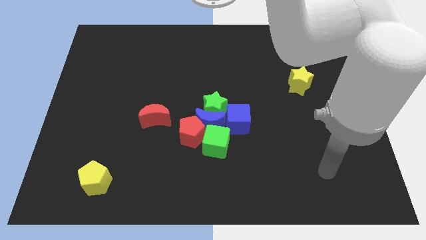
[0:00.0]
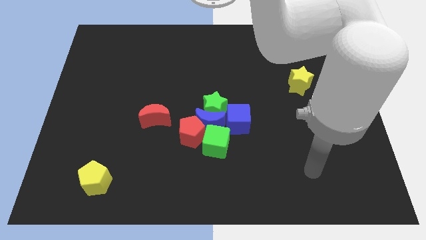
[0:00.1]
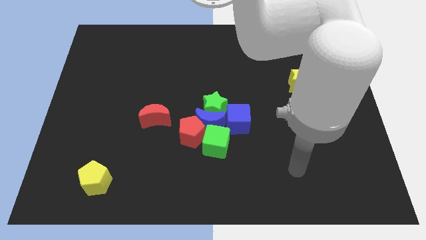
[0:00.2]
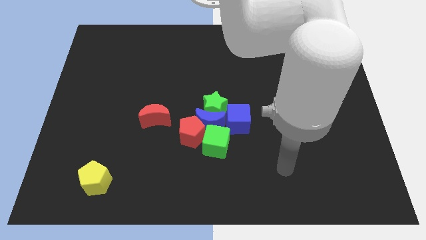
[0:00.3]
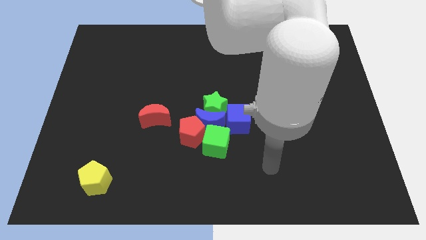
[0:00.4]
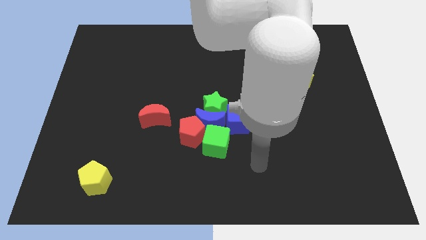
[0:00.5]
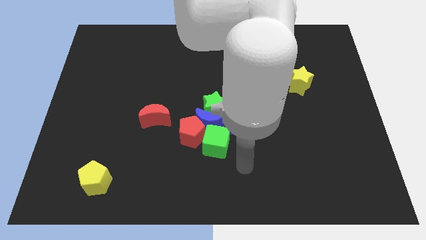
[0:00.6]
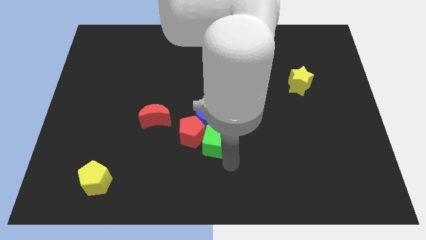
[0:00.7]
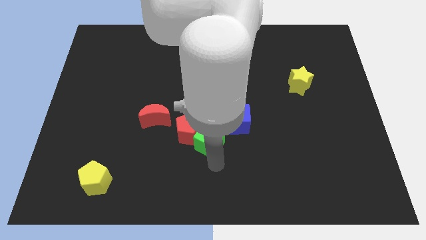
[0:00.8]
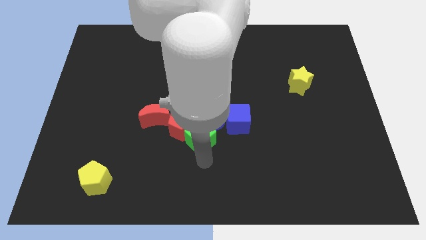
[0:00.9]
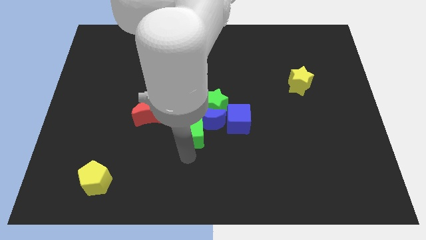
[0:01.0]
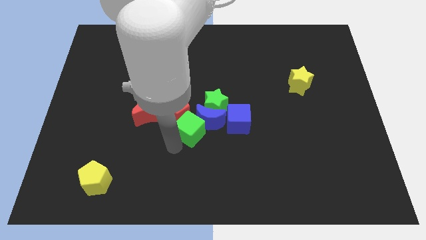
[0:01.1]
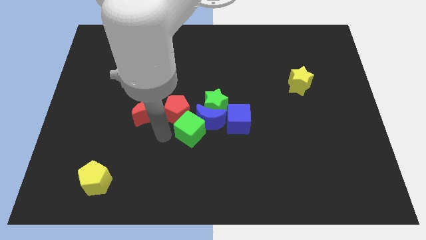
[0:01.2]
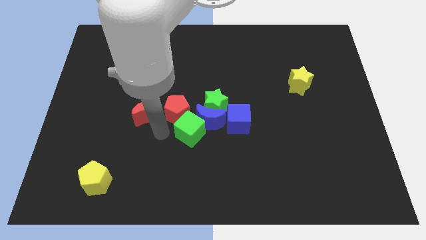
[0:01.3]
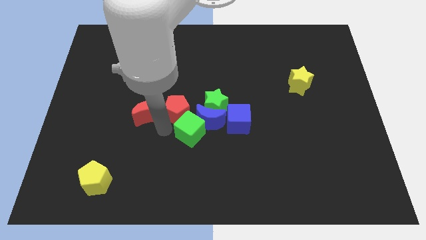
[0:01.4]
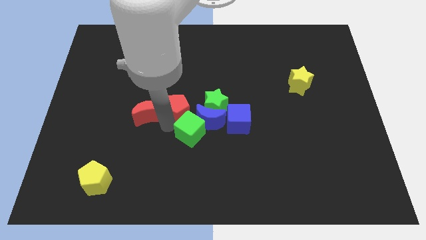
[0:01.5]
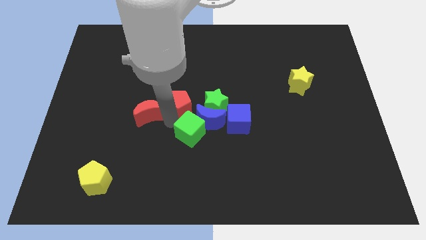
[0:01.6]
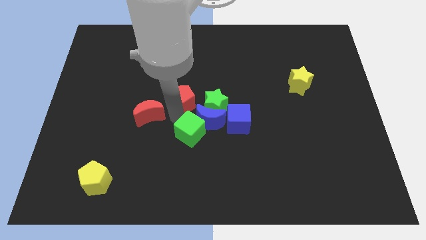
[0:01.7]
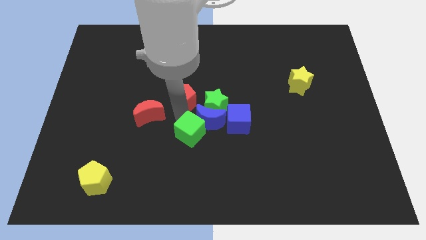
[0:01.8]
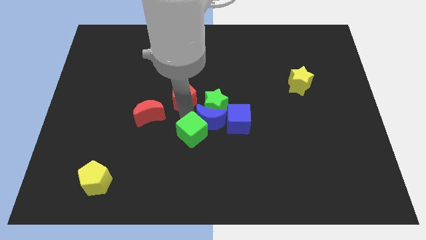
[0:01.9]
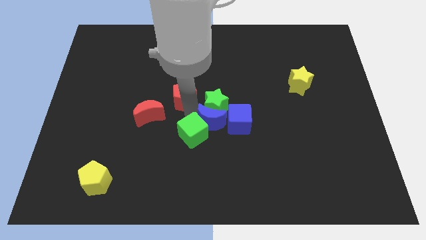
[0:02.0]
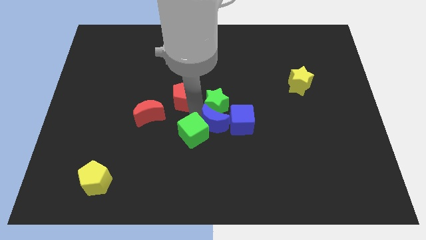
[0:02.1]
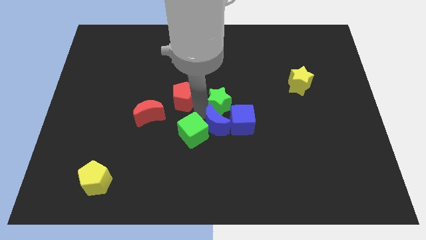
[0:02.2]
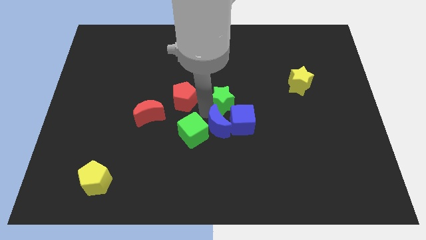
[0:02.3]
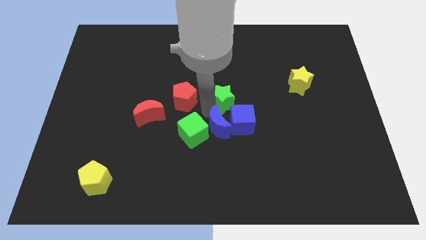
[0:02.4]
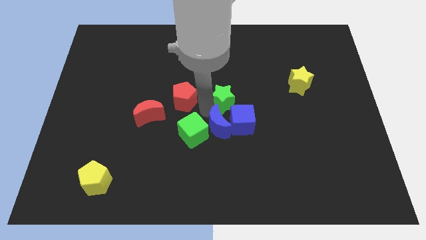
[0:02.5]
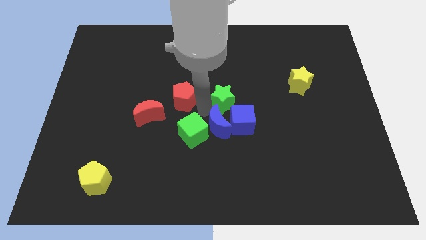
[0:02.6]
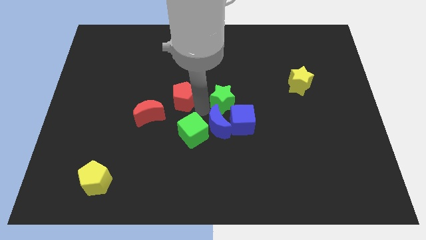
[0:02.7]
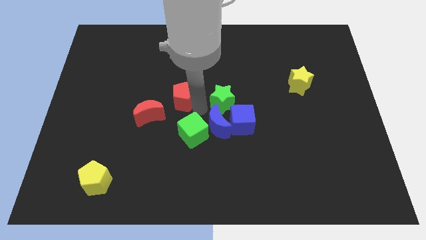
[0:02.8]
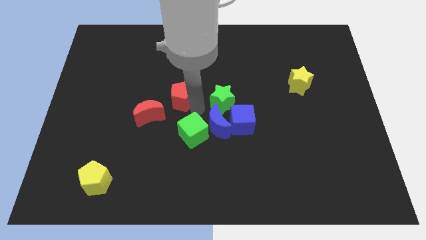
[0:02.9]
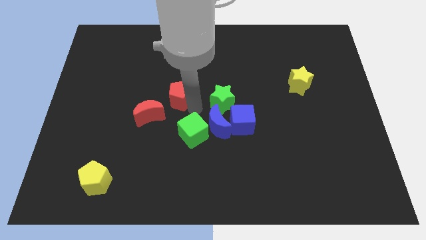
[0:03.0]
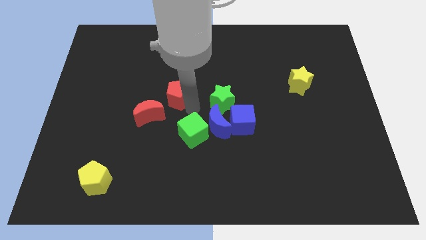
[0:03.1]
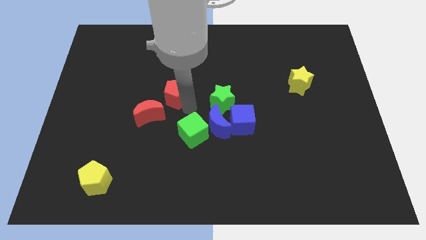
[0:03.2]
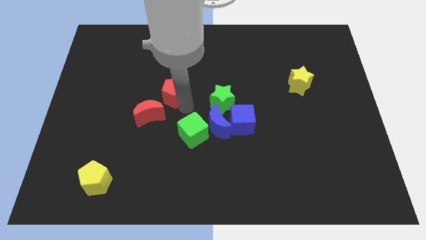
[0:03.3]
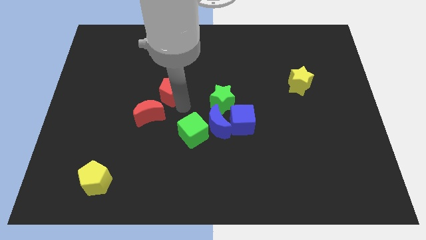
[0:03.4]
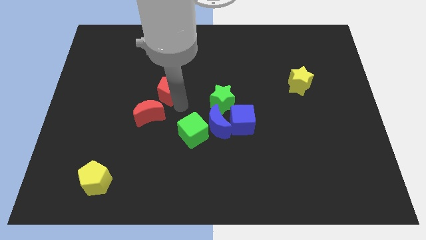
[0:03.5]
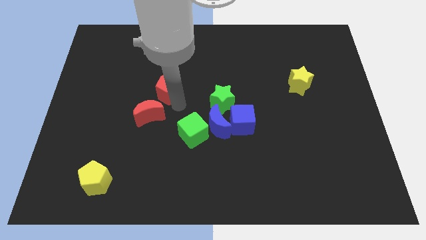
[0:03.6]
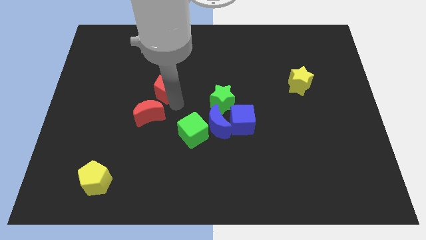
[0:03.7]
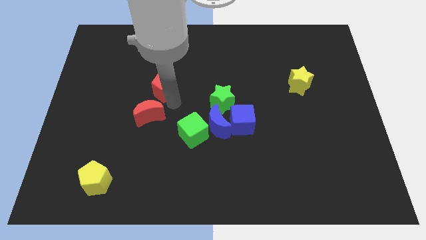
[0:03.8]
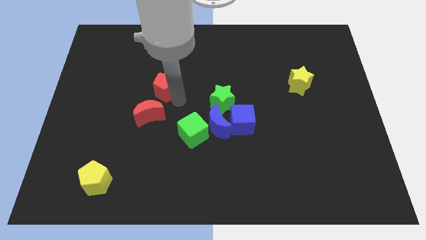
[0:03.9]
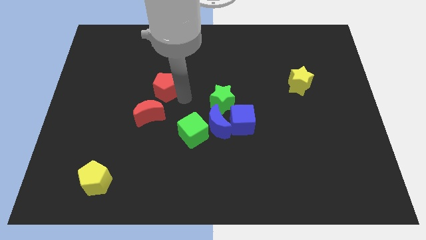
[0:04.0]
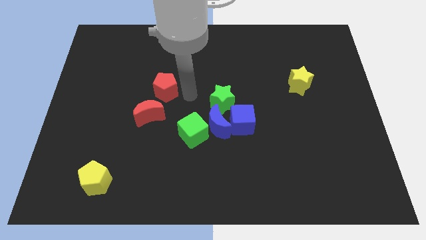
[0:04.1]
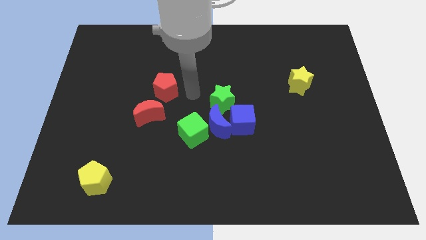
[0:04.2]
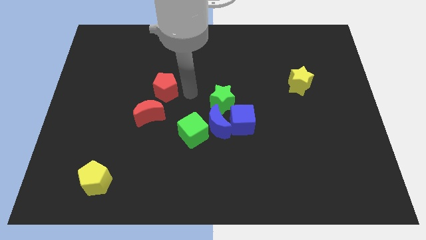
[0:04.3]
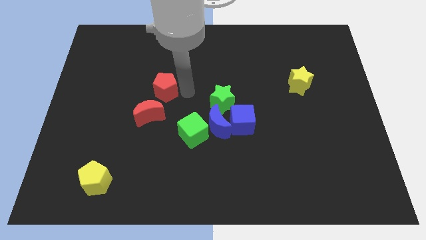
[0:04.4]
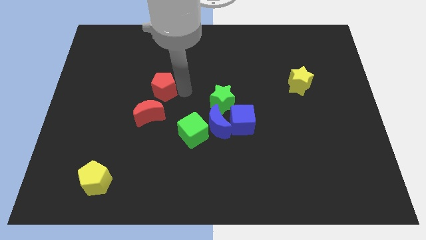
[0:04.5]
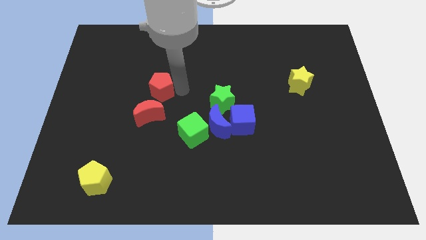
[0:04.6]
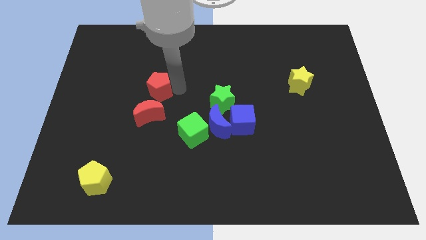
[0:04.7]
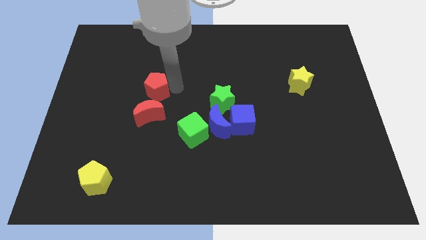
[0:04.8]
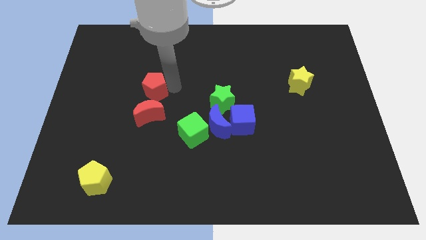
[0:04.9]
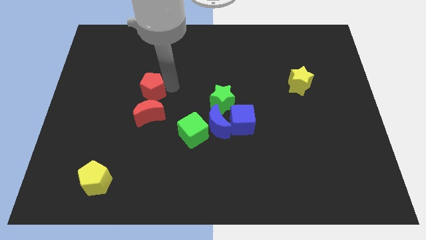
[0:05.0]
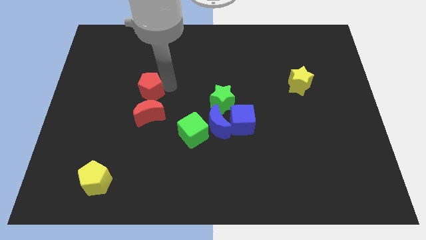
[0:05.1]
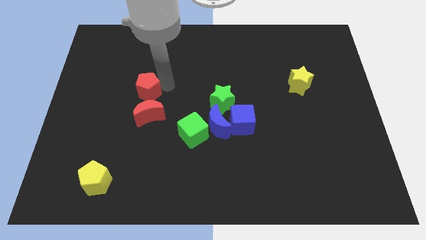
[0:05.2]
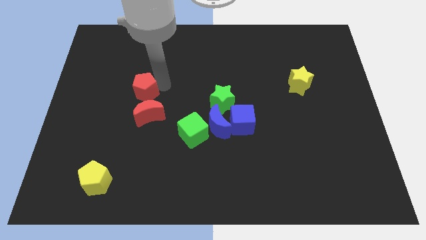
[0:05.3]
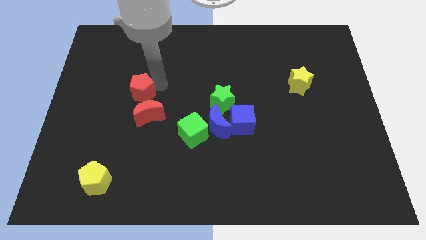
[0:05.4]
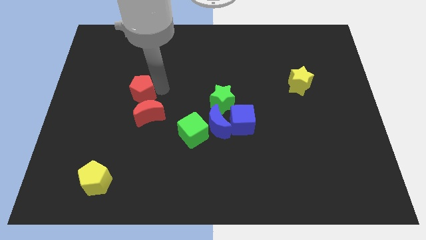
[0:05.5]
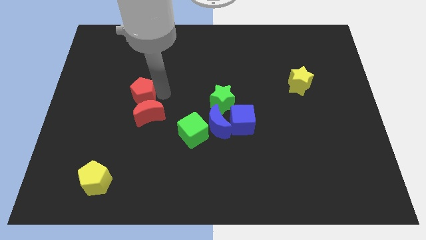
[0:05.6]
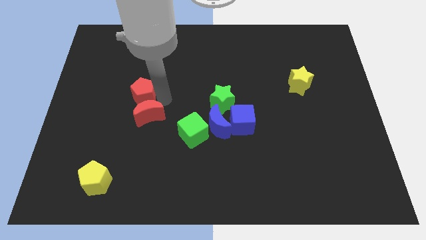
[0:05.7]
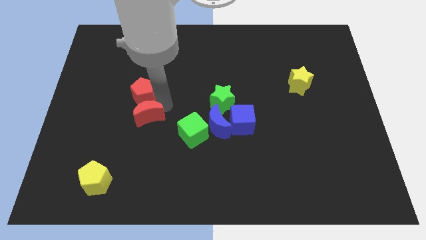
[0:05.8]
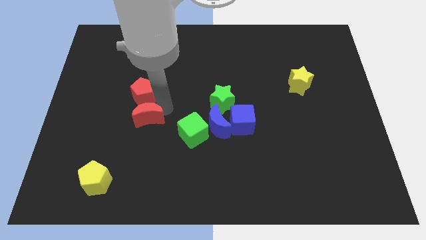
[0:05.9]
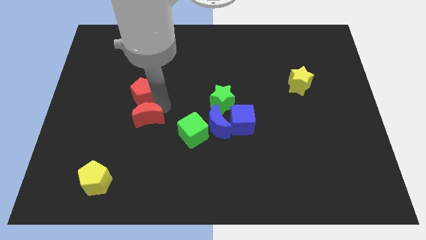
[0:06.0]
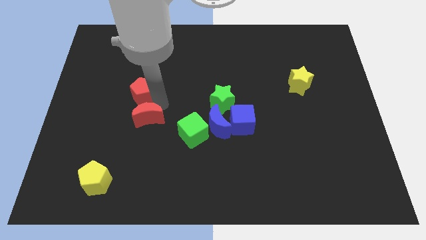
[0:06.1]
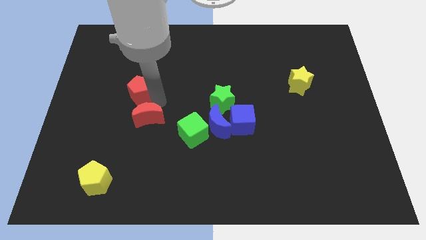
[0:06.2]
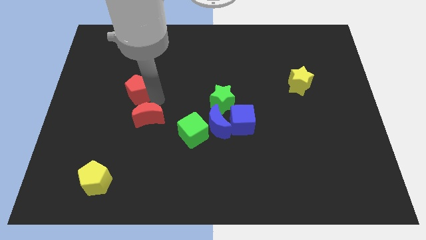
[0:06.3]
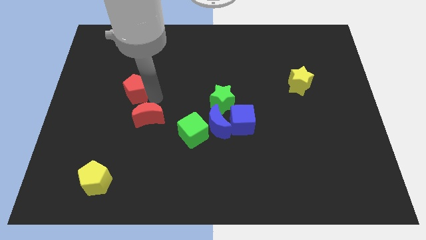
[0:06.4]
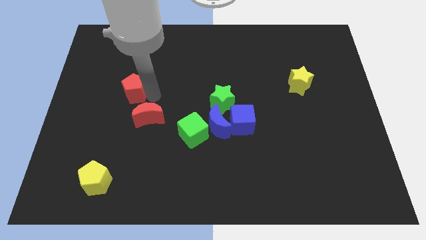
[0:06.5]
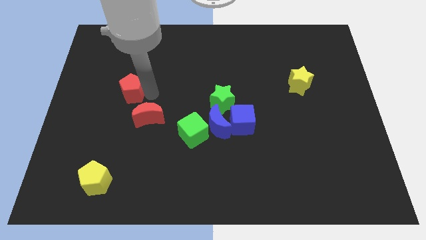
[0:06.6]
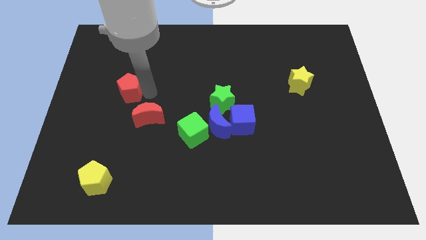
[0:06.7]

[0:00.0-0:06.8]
move the red pentagon up and then to the left

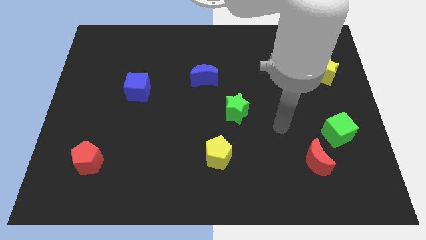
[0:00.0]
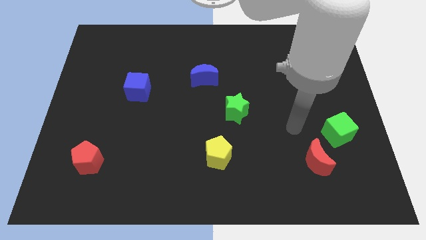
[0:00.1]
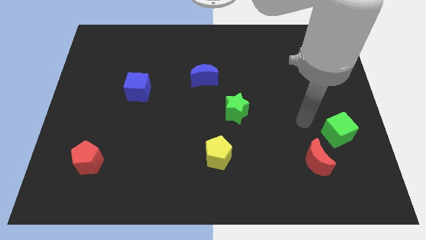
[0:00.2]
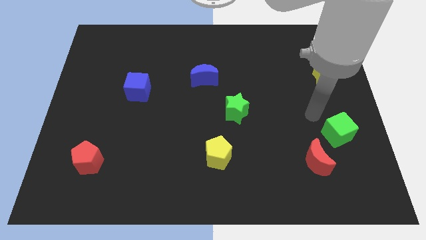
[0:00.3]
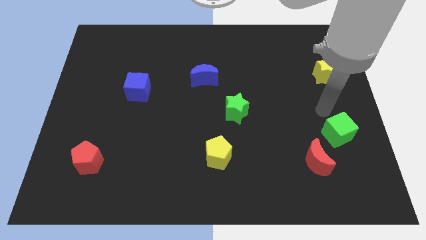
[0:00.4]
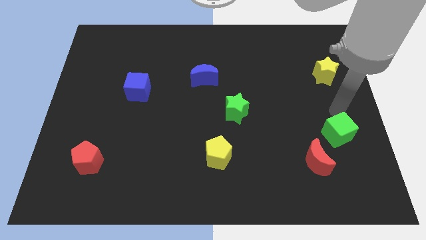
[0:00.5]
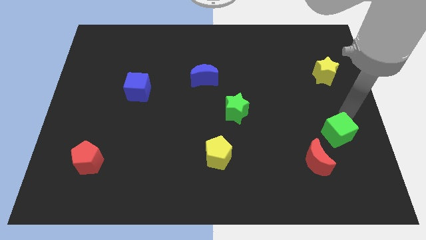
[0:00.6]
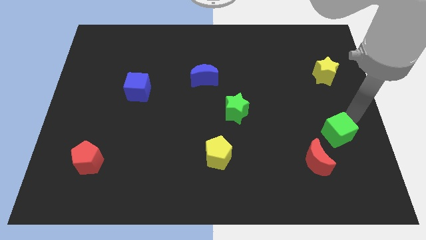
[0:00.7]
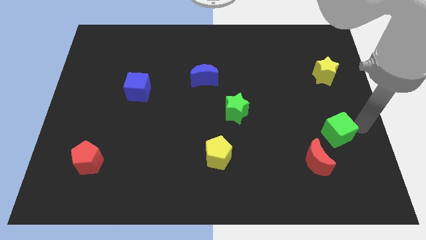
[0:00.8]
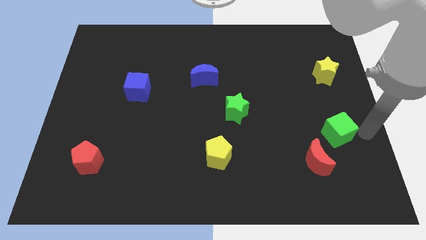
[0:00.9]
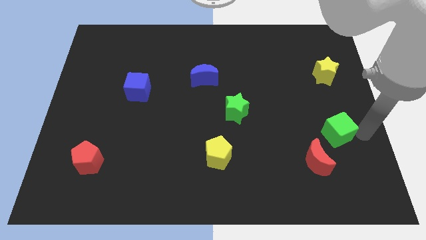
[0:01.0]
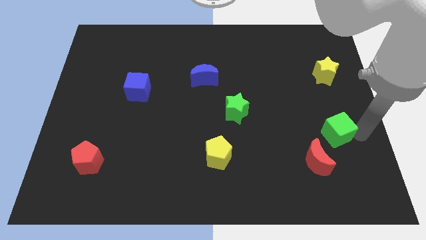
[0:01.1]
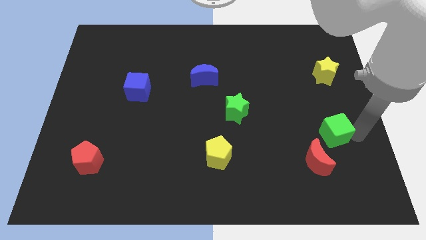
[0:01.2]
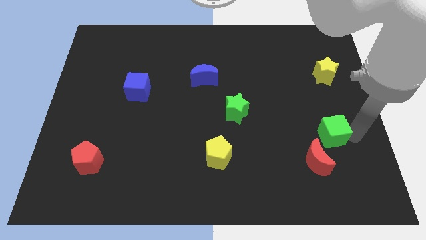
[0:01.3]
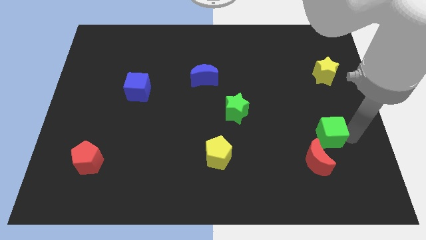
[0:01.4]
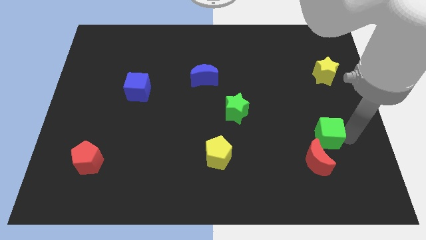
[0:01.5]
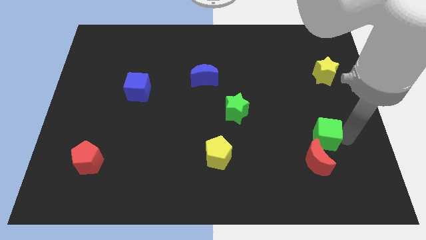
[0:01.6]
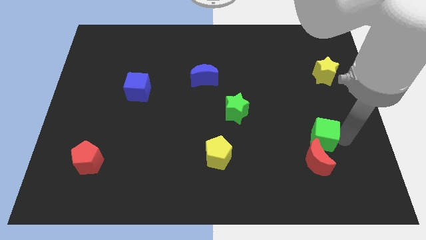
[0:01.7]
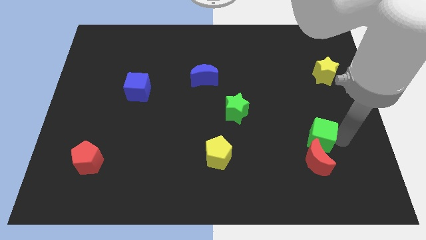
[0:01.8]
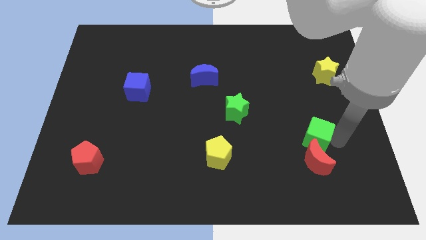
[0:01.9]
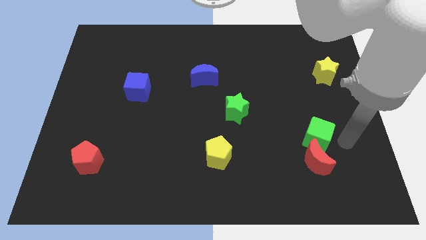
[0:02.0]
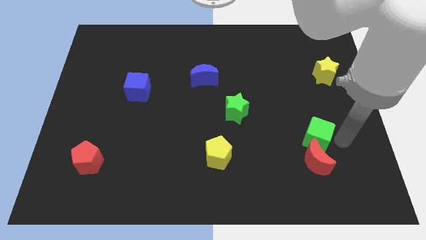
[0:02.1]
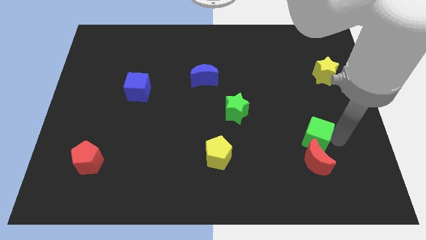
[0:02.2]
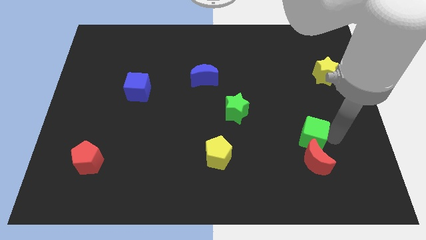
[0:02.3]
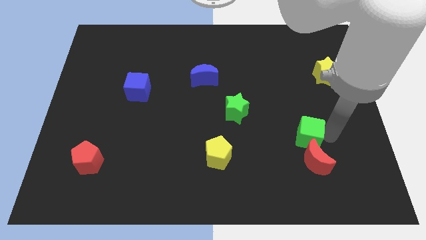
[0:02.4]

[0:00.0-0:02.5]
slide the green cube left a little
